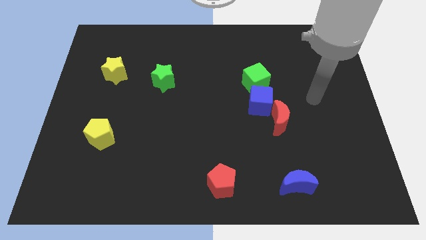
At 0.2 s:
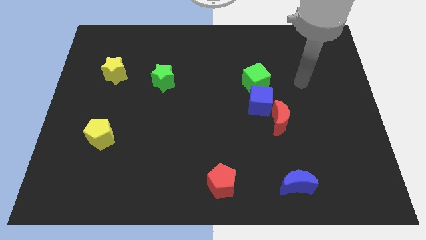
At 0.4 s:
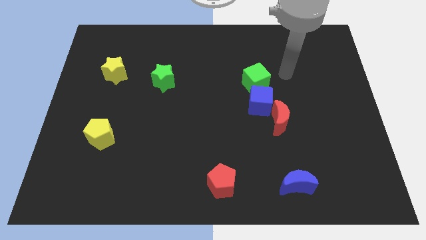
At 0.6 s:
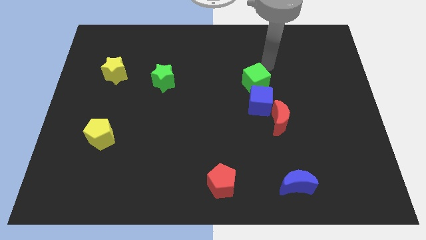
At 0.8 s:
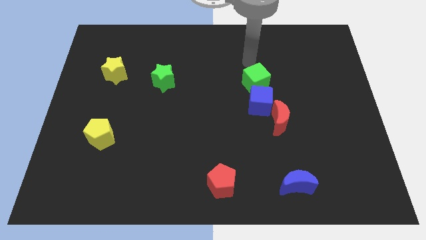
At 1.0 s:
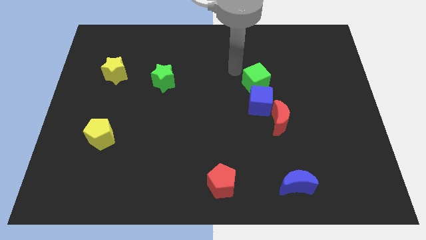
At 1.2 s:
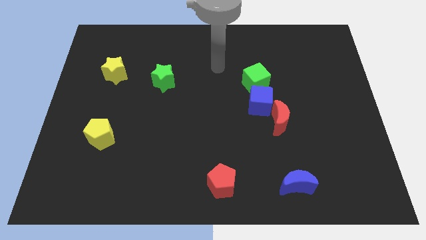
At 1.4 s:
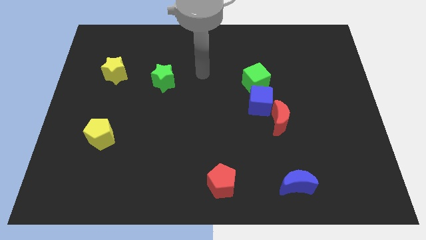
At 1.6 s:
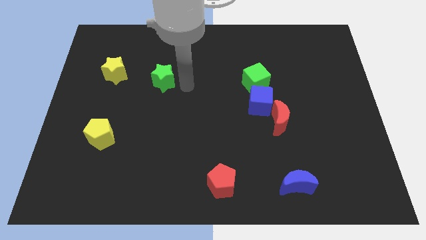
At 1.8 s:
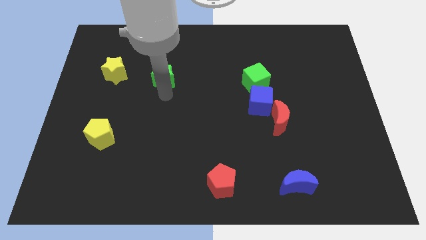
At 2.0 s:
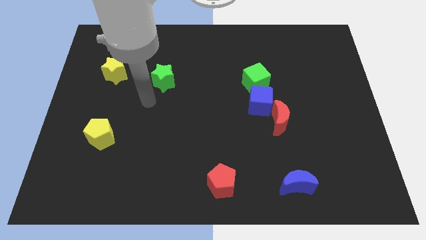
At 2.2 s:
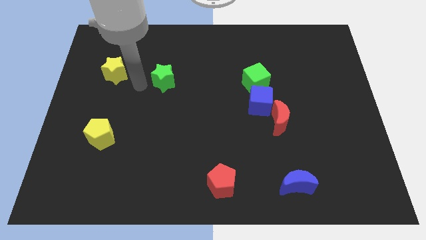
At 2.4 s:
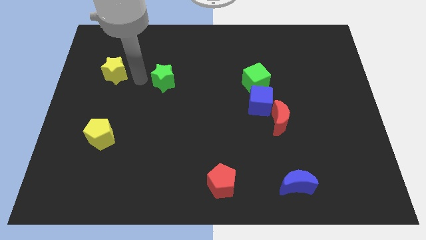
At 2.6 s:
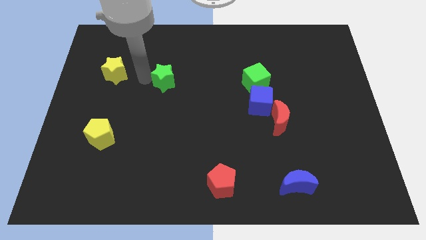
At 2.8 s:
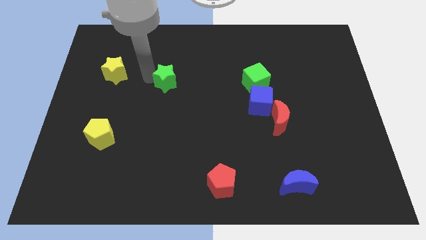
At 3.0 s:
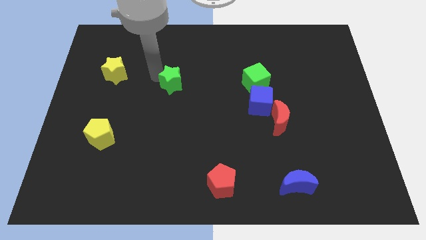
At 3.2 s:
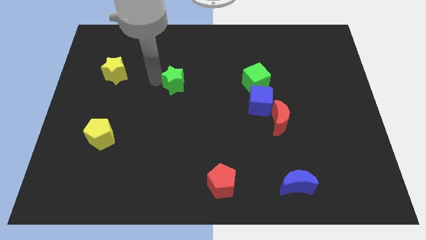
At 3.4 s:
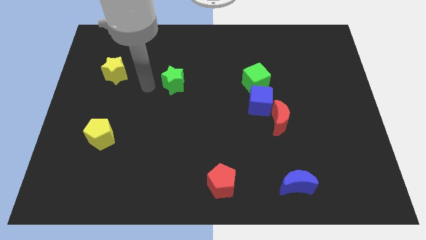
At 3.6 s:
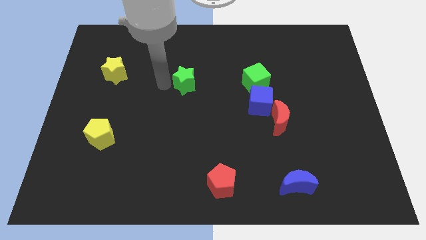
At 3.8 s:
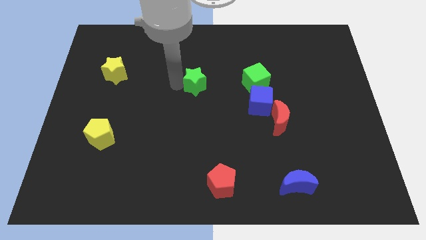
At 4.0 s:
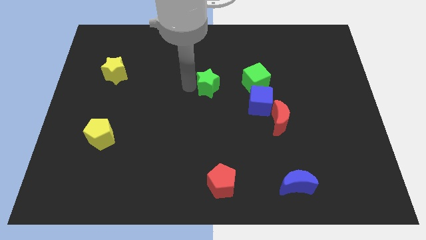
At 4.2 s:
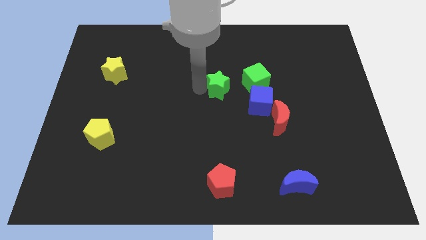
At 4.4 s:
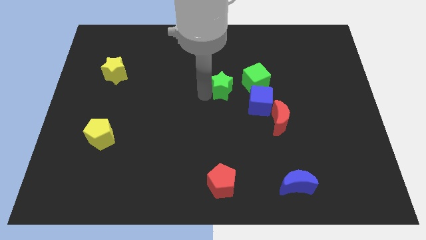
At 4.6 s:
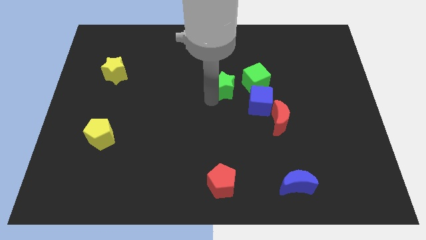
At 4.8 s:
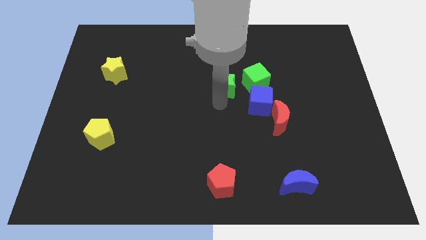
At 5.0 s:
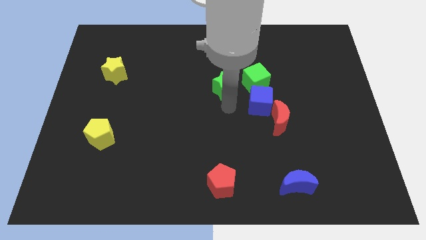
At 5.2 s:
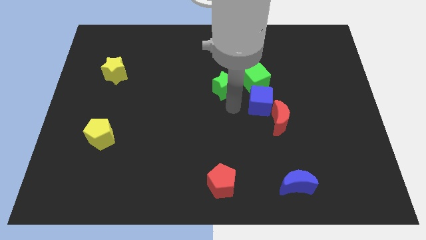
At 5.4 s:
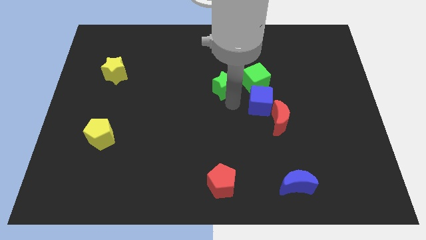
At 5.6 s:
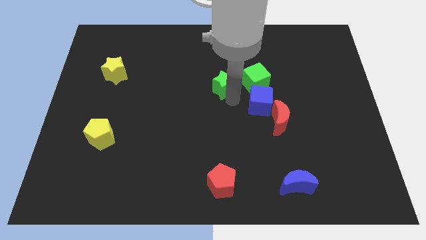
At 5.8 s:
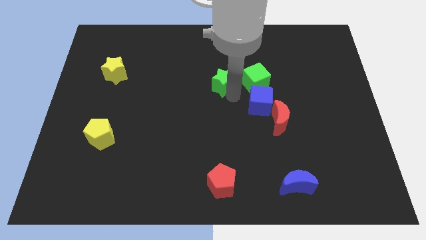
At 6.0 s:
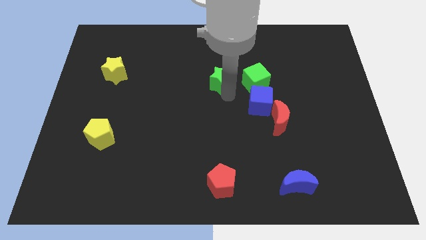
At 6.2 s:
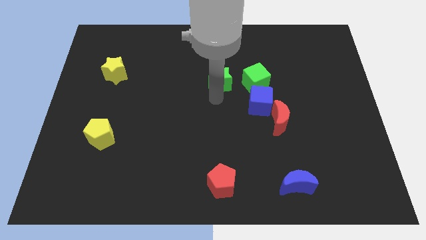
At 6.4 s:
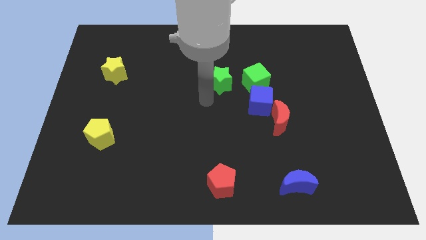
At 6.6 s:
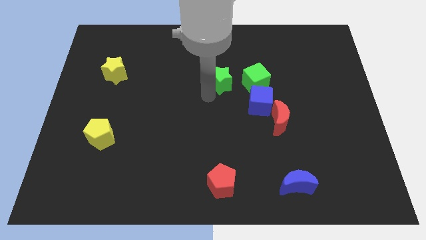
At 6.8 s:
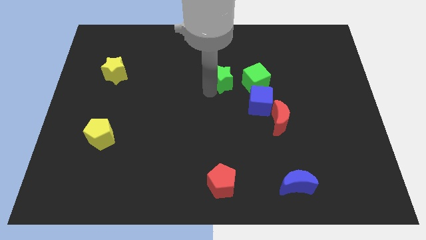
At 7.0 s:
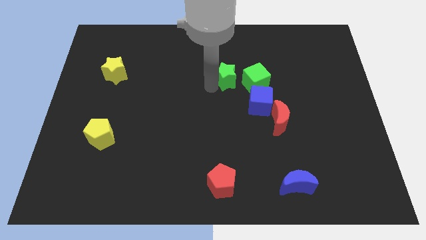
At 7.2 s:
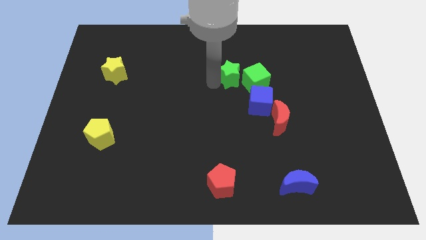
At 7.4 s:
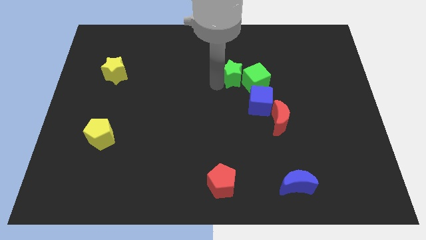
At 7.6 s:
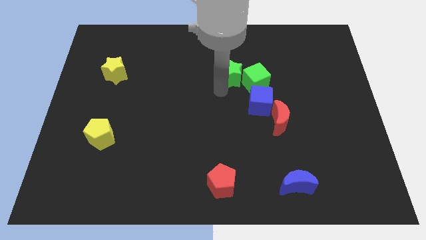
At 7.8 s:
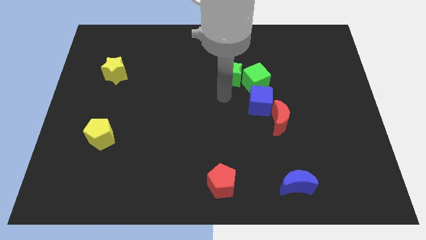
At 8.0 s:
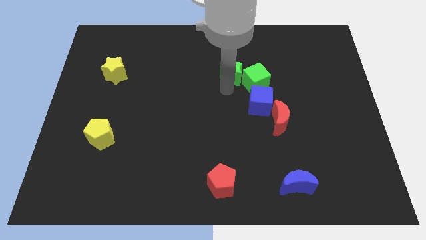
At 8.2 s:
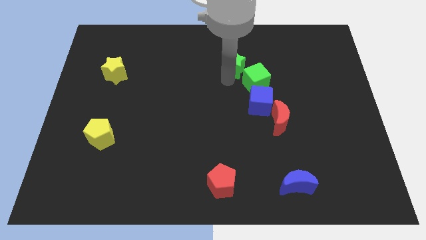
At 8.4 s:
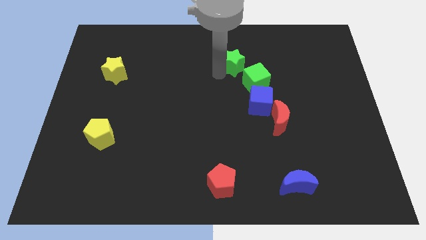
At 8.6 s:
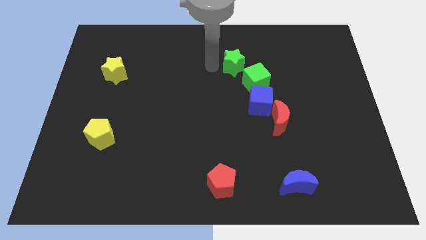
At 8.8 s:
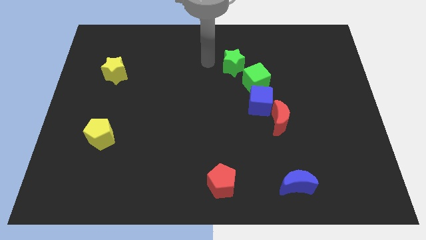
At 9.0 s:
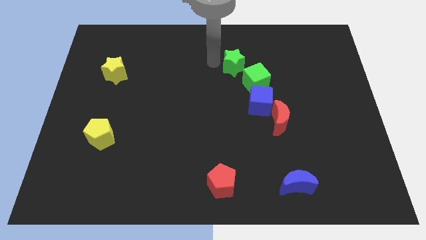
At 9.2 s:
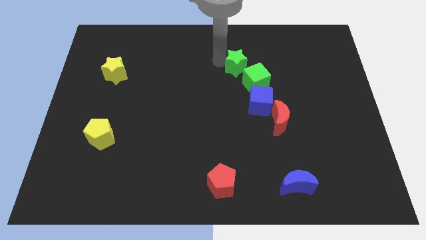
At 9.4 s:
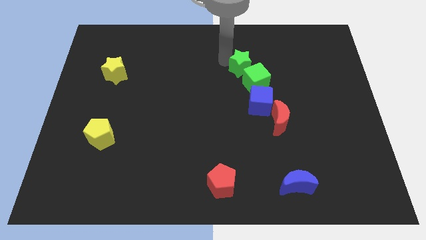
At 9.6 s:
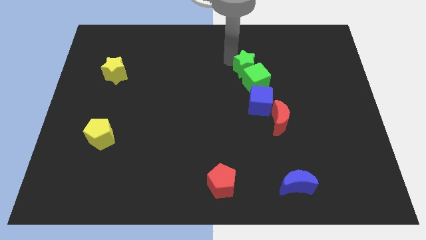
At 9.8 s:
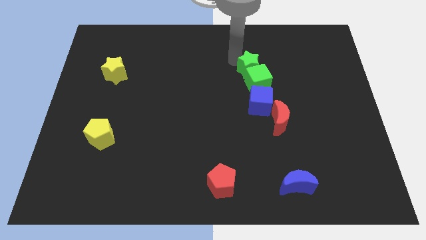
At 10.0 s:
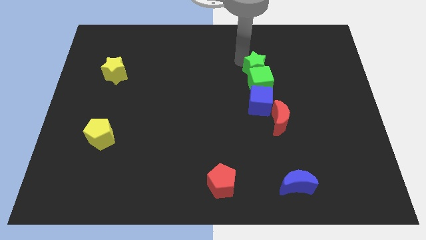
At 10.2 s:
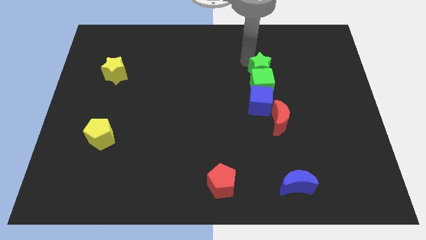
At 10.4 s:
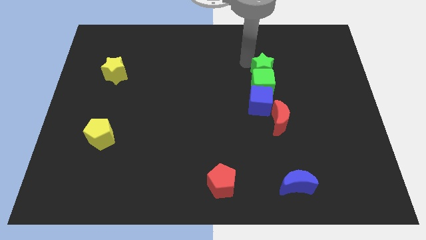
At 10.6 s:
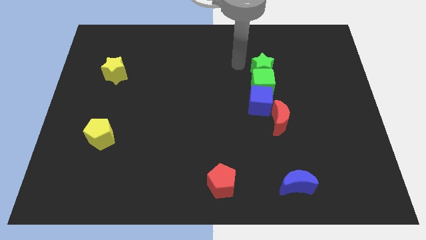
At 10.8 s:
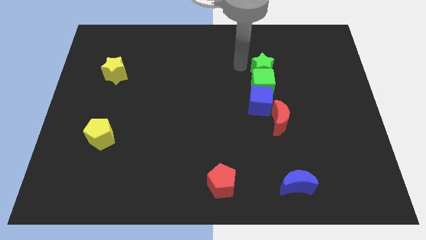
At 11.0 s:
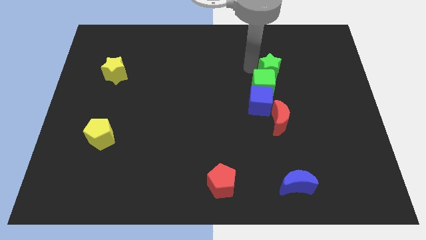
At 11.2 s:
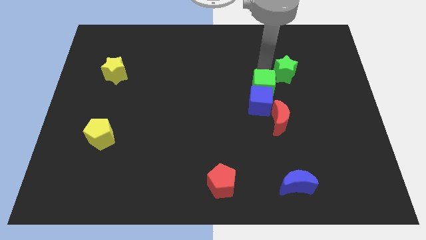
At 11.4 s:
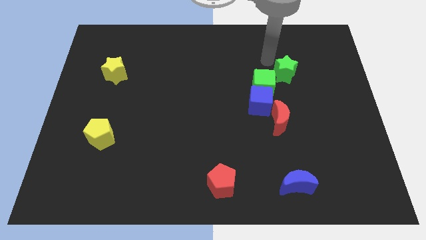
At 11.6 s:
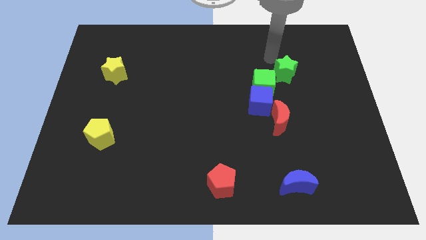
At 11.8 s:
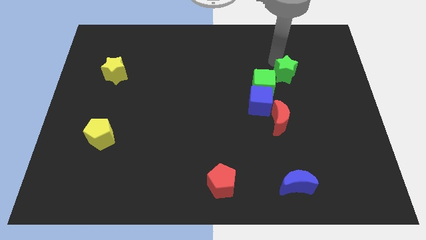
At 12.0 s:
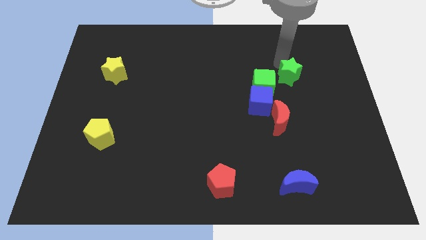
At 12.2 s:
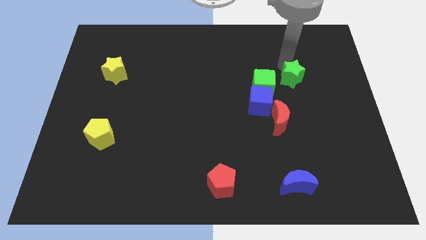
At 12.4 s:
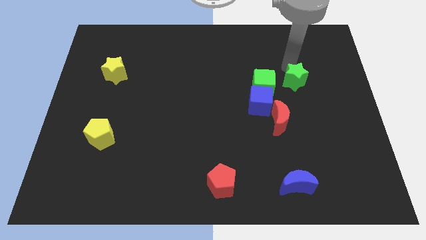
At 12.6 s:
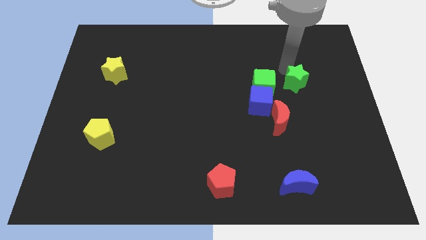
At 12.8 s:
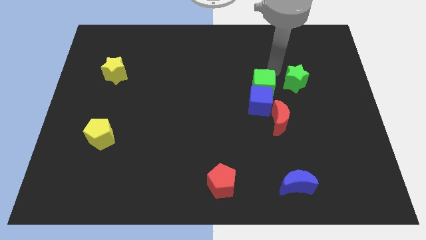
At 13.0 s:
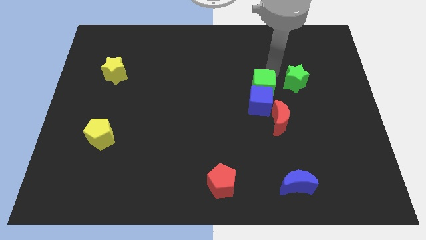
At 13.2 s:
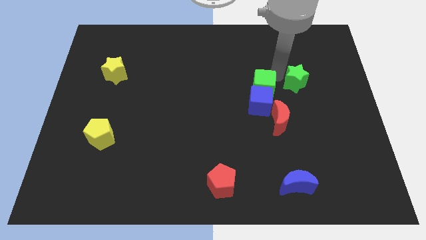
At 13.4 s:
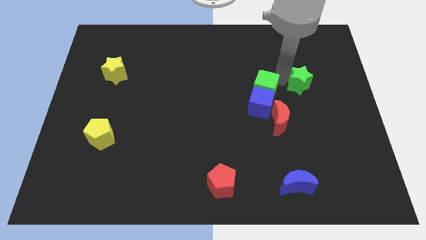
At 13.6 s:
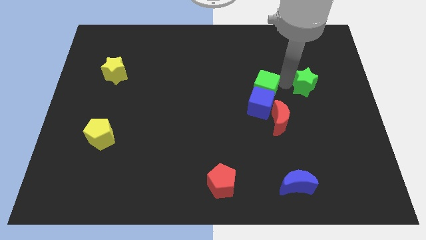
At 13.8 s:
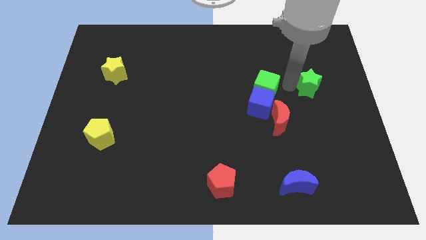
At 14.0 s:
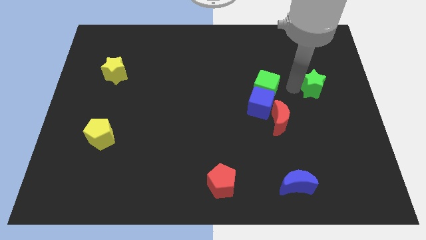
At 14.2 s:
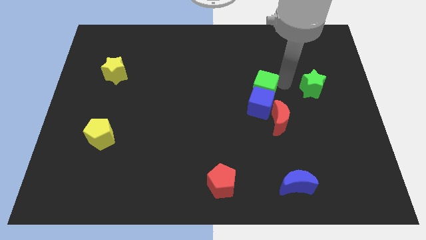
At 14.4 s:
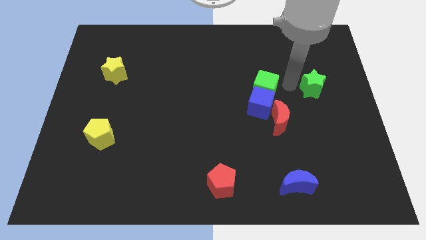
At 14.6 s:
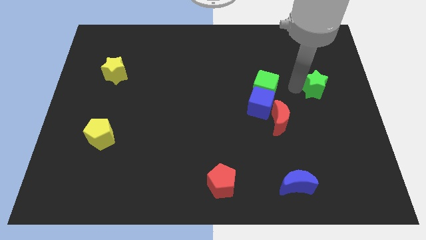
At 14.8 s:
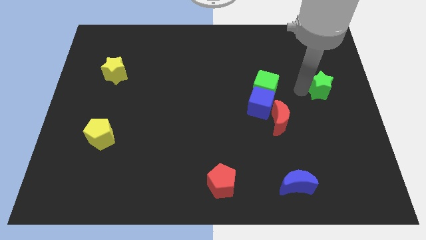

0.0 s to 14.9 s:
slide the green star to the right side
